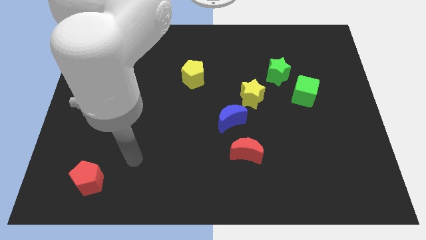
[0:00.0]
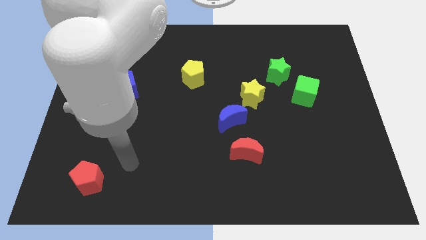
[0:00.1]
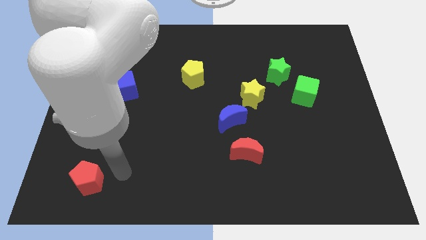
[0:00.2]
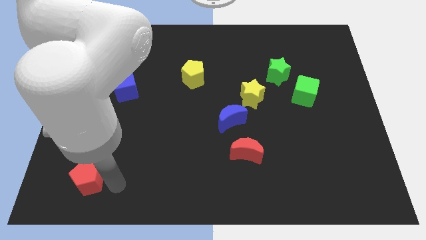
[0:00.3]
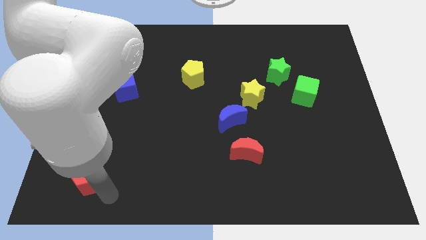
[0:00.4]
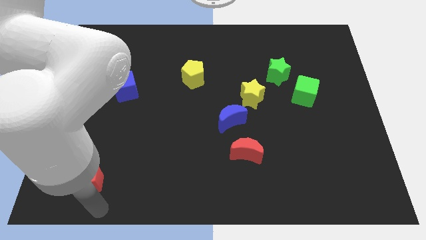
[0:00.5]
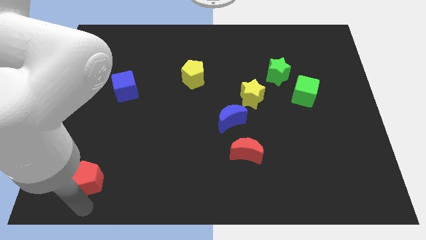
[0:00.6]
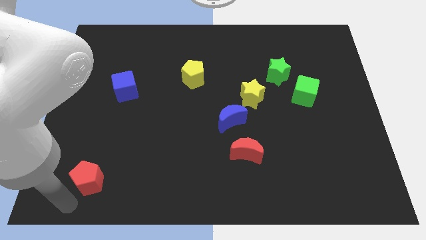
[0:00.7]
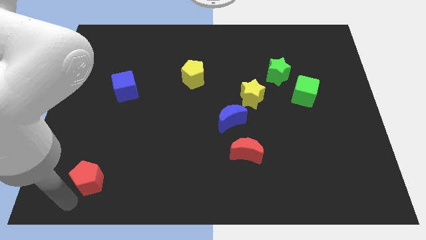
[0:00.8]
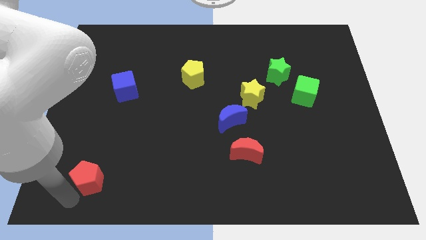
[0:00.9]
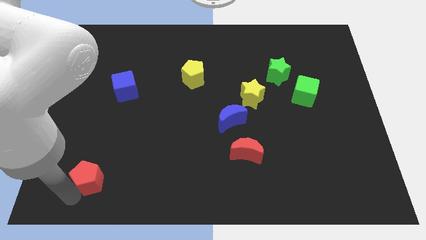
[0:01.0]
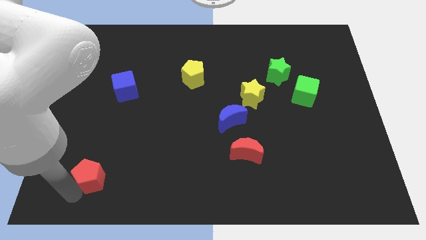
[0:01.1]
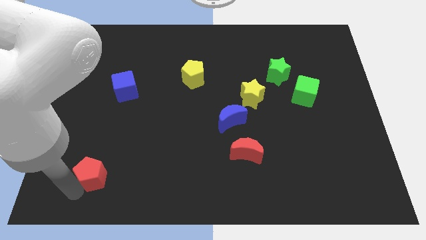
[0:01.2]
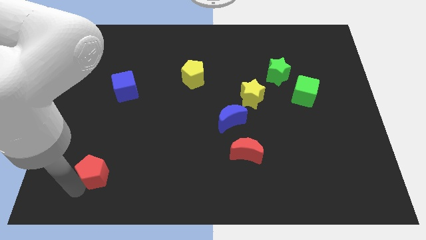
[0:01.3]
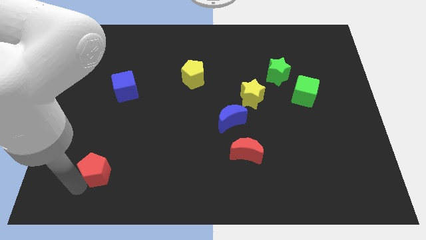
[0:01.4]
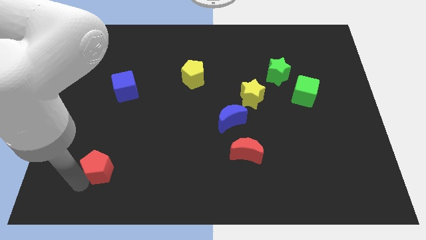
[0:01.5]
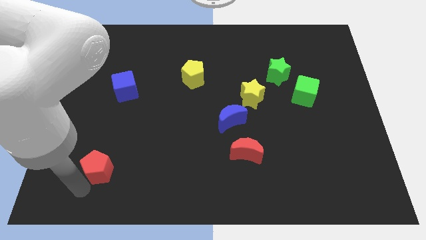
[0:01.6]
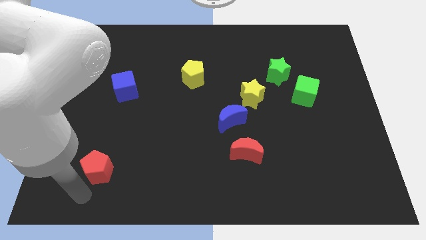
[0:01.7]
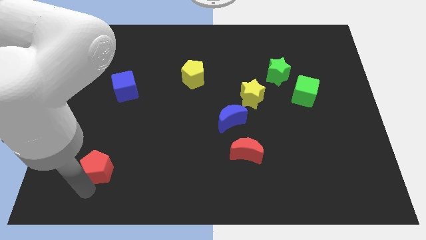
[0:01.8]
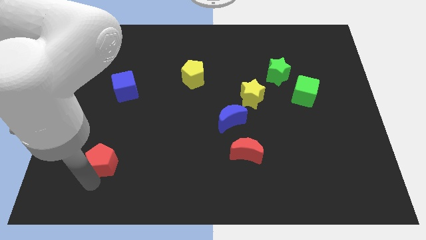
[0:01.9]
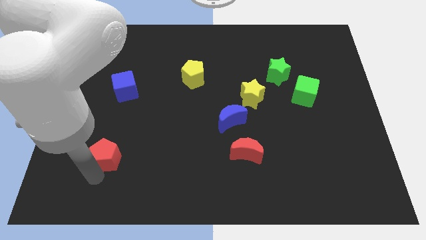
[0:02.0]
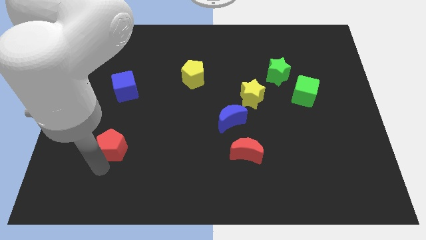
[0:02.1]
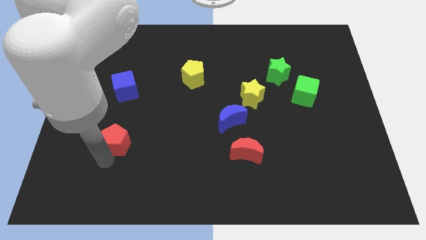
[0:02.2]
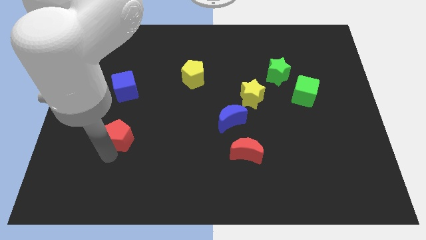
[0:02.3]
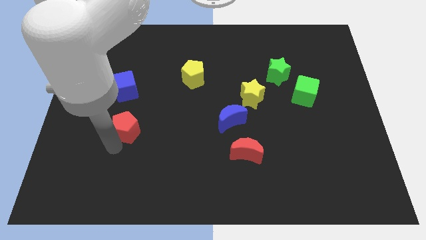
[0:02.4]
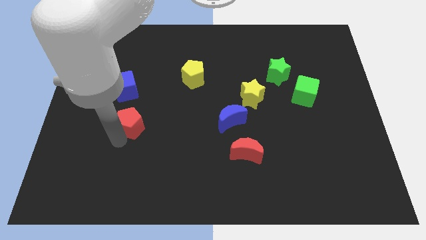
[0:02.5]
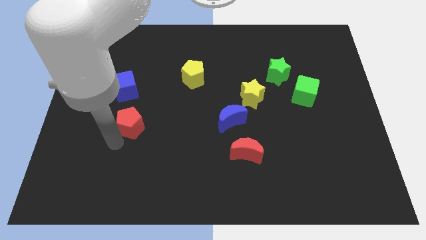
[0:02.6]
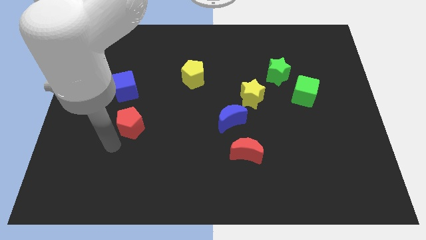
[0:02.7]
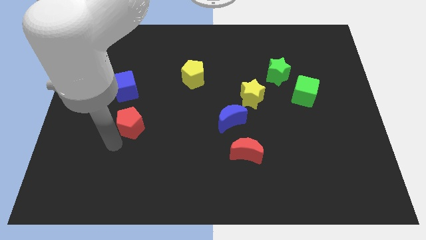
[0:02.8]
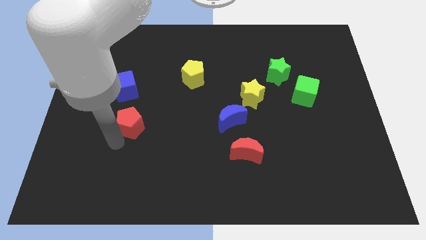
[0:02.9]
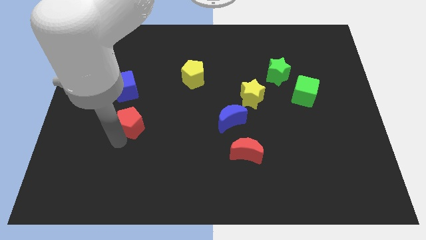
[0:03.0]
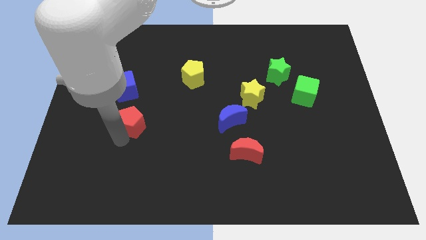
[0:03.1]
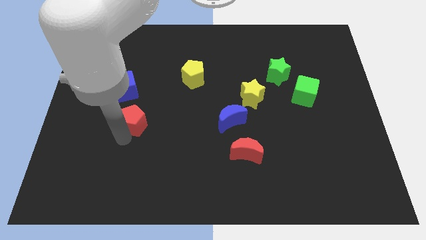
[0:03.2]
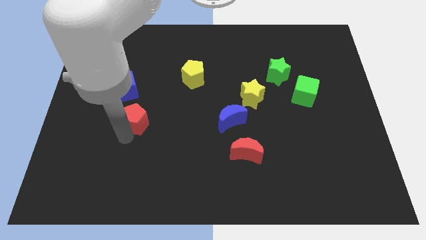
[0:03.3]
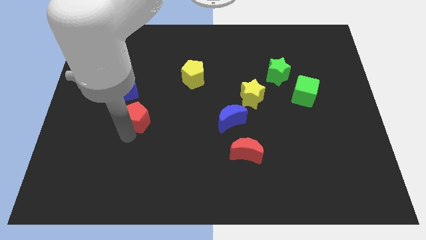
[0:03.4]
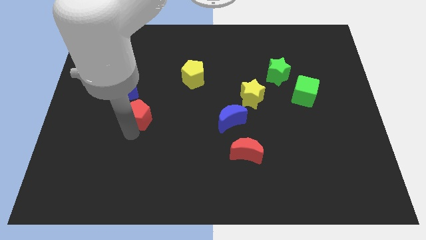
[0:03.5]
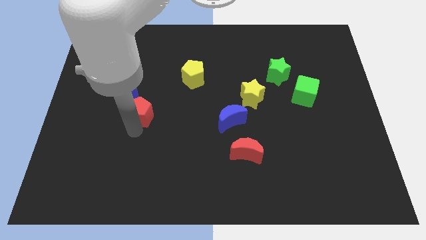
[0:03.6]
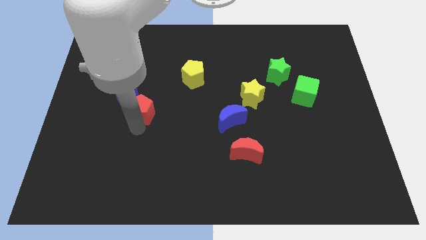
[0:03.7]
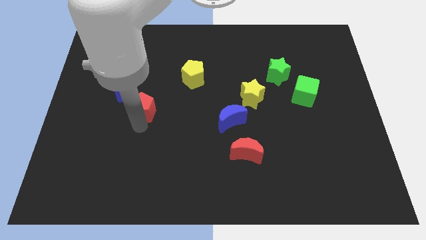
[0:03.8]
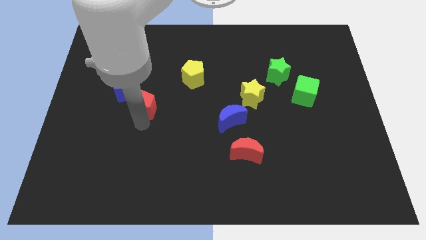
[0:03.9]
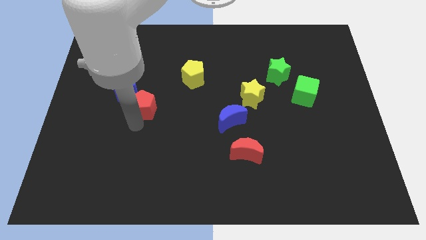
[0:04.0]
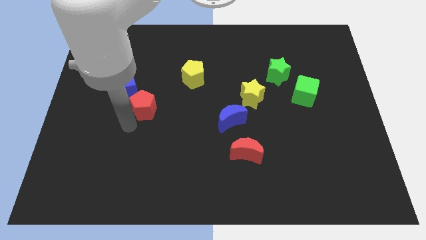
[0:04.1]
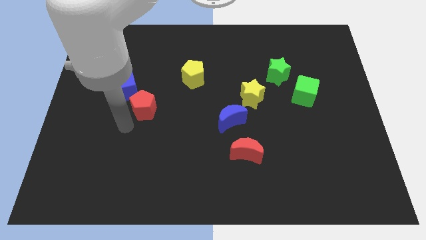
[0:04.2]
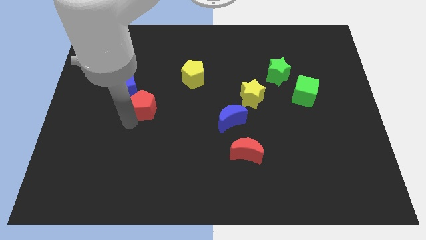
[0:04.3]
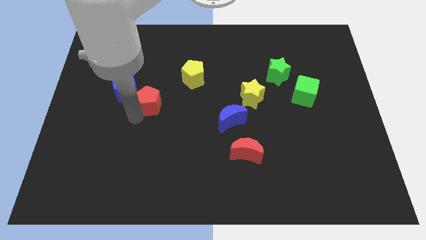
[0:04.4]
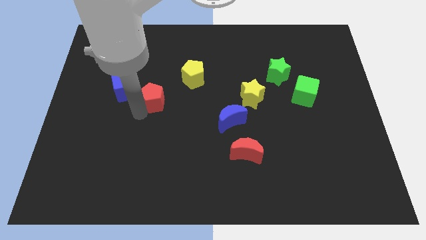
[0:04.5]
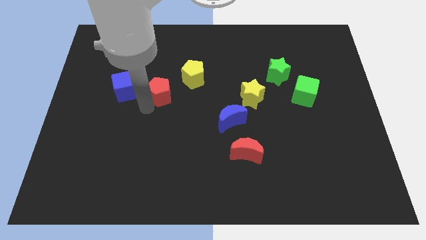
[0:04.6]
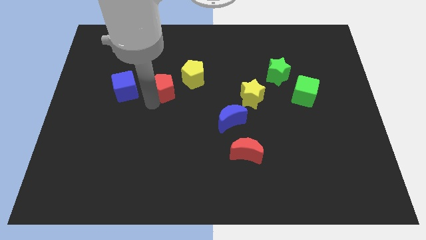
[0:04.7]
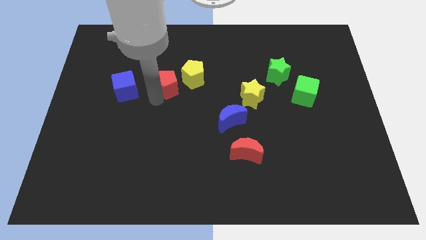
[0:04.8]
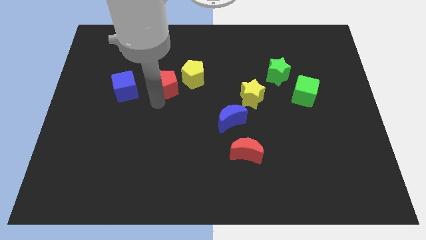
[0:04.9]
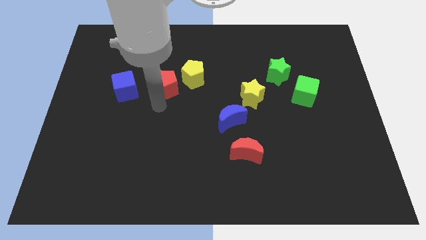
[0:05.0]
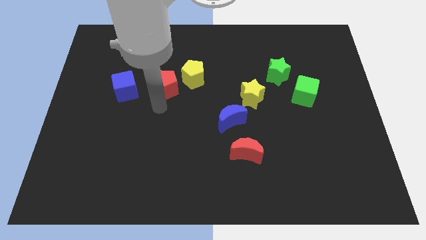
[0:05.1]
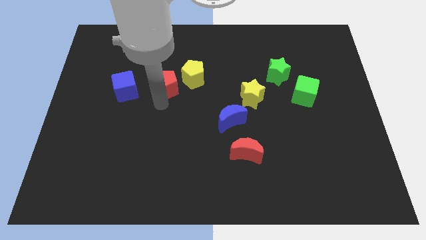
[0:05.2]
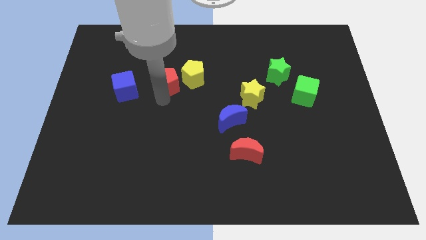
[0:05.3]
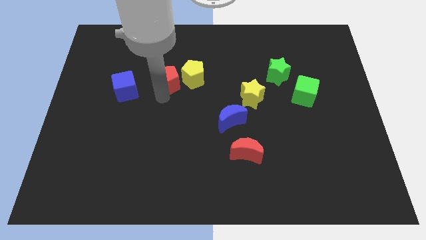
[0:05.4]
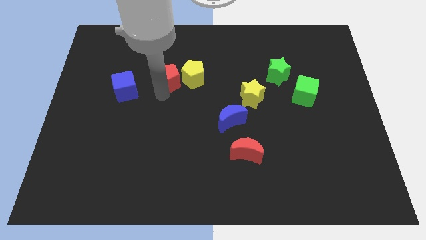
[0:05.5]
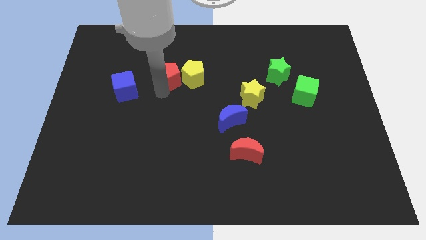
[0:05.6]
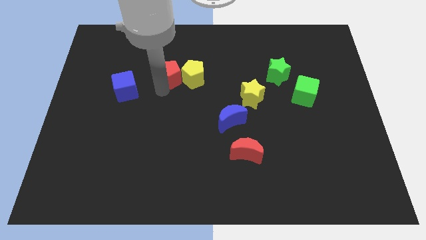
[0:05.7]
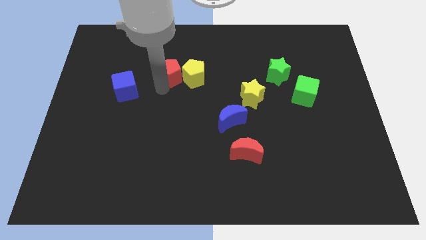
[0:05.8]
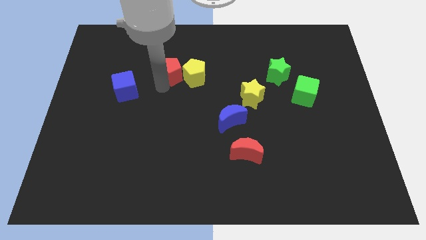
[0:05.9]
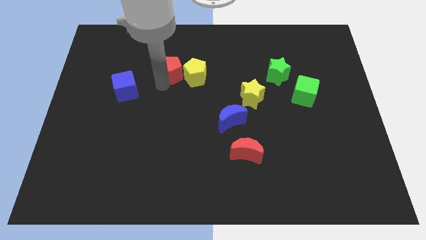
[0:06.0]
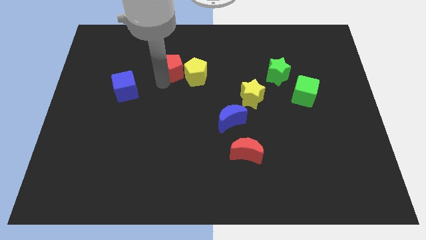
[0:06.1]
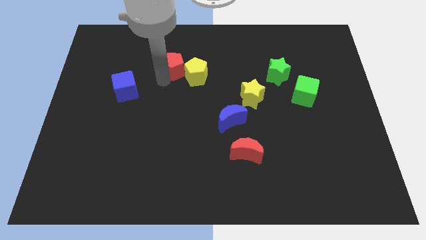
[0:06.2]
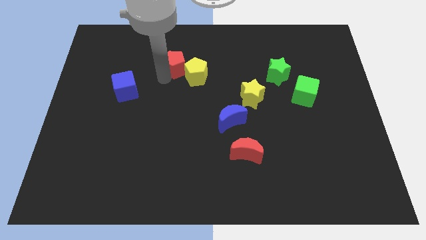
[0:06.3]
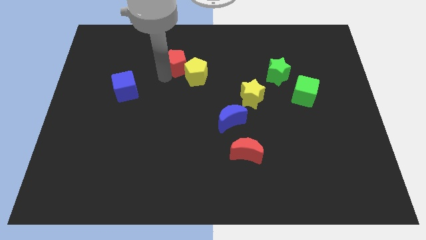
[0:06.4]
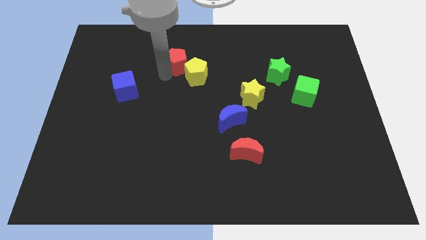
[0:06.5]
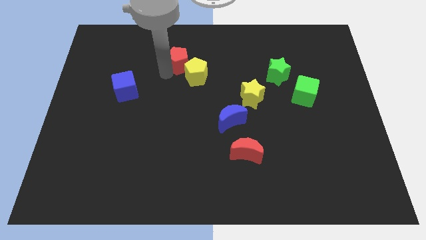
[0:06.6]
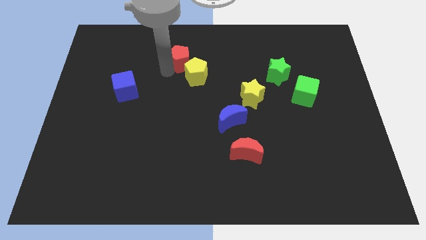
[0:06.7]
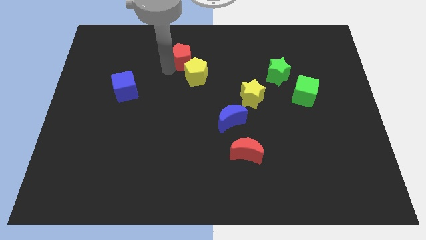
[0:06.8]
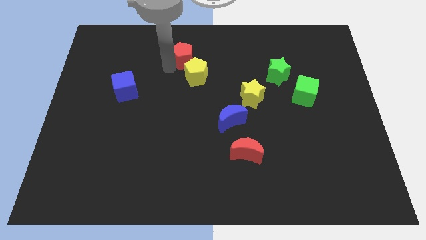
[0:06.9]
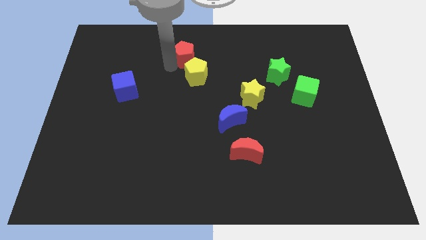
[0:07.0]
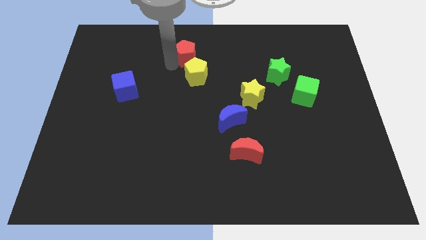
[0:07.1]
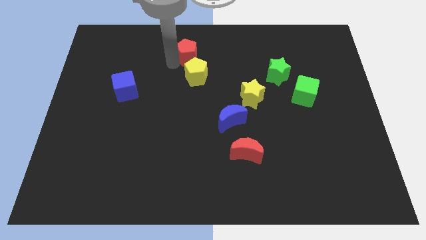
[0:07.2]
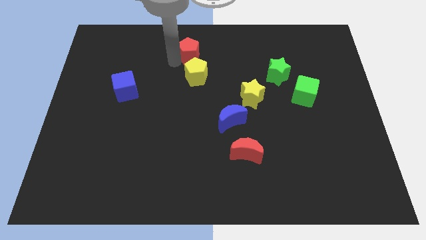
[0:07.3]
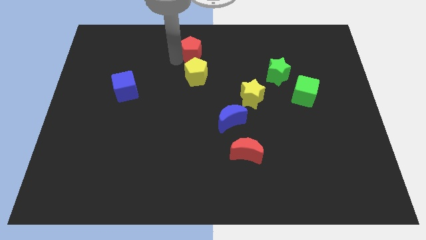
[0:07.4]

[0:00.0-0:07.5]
slide the red pentagon to the top side
